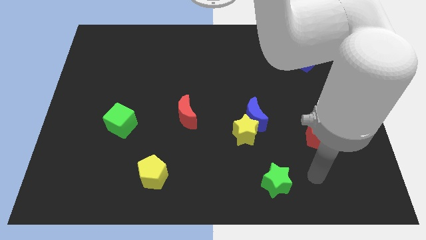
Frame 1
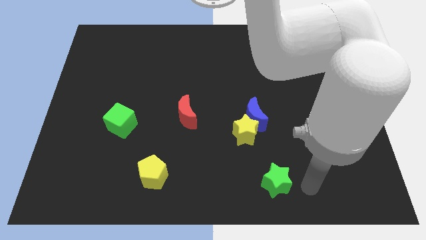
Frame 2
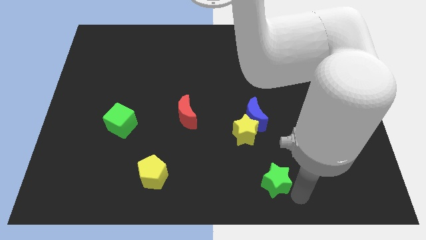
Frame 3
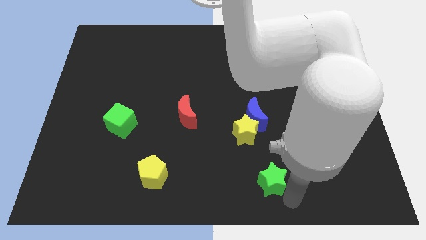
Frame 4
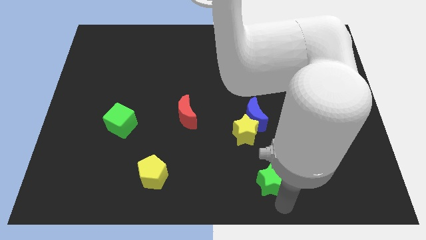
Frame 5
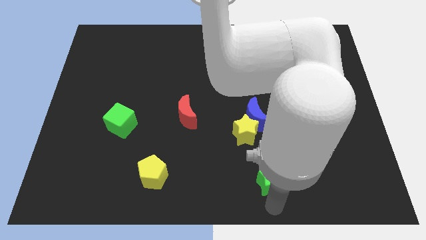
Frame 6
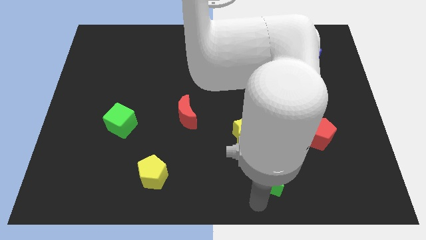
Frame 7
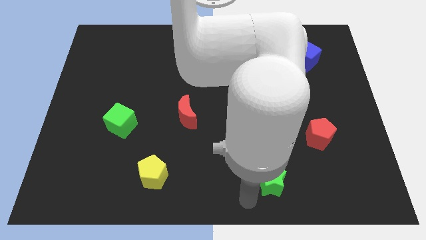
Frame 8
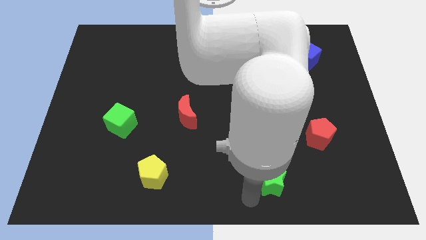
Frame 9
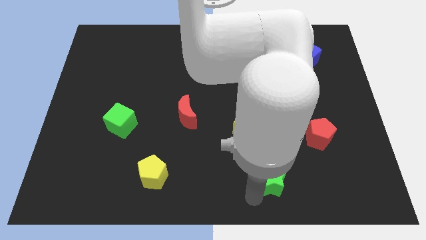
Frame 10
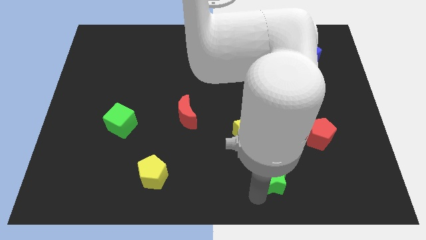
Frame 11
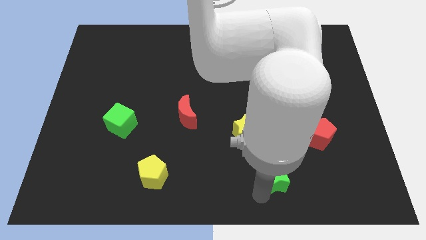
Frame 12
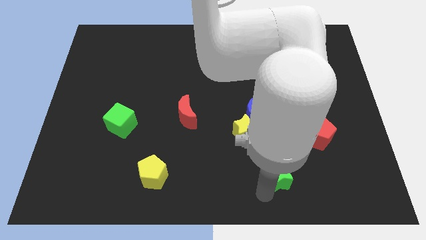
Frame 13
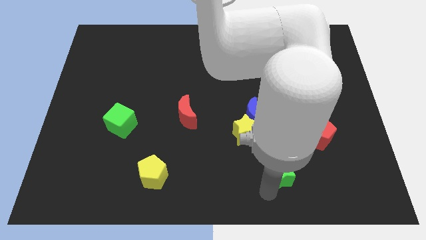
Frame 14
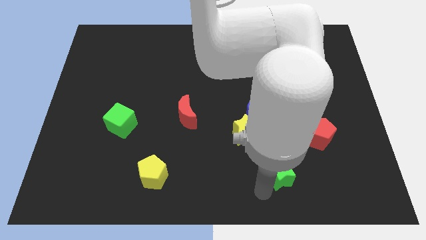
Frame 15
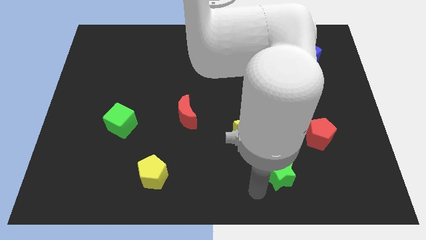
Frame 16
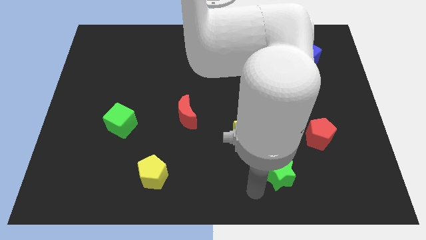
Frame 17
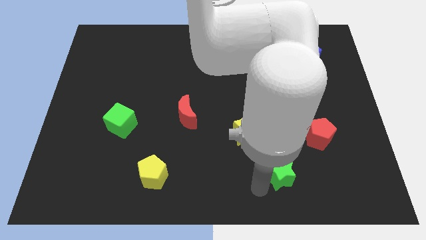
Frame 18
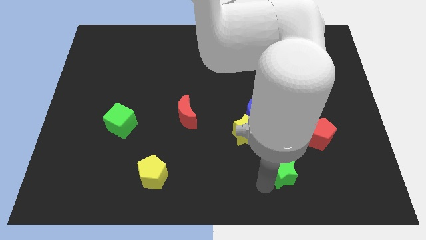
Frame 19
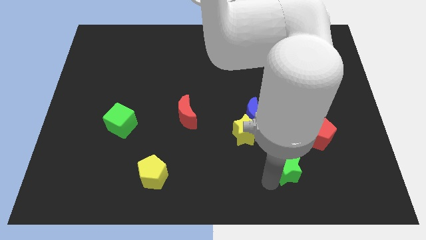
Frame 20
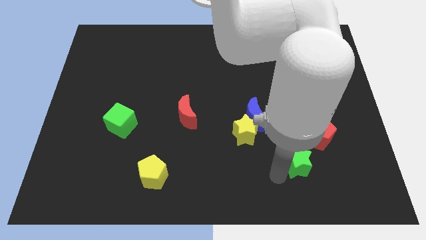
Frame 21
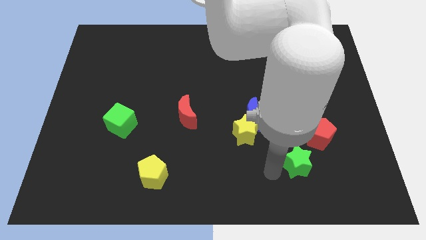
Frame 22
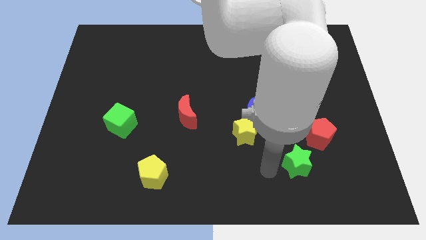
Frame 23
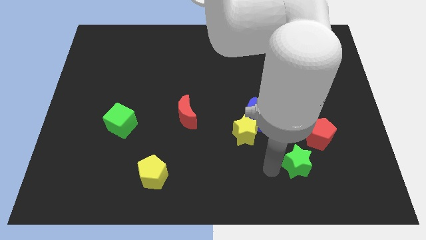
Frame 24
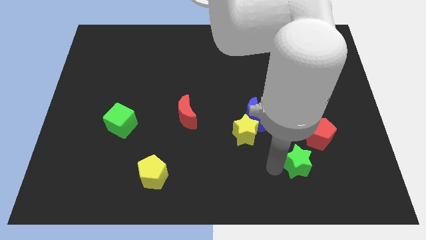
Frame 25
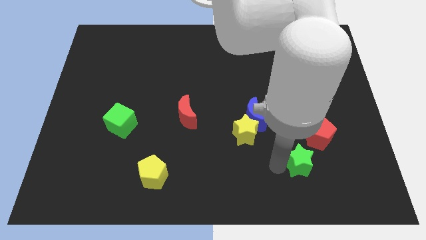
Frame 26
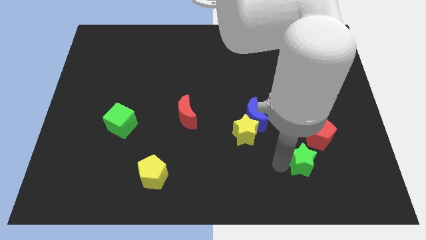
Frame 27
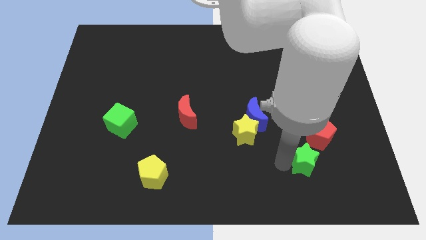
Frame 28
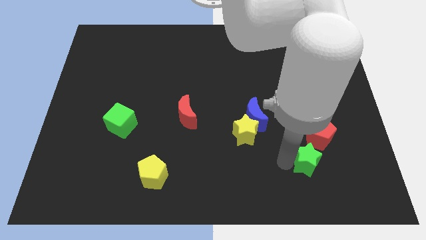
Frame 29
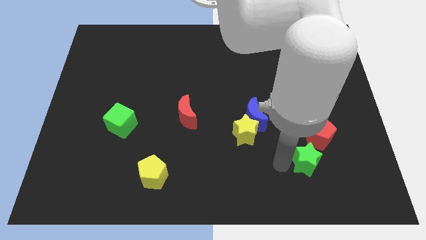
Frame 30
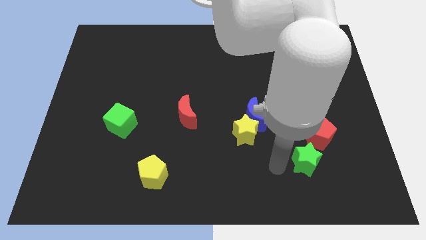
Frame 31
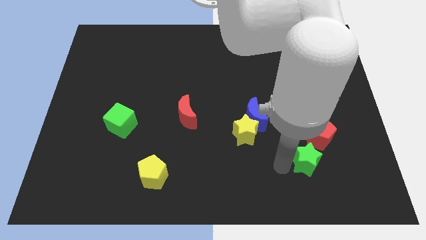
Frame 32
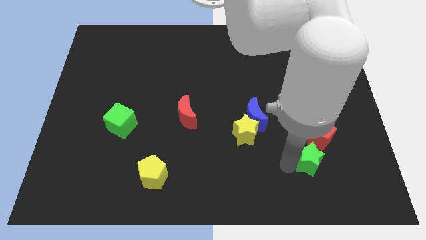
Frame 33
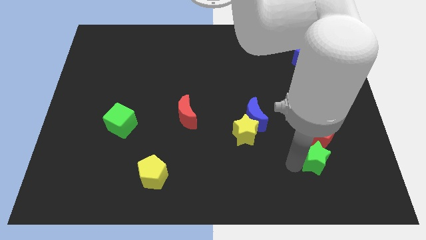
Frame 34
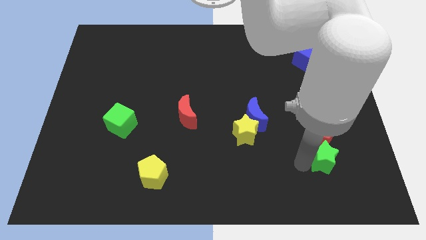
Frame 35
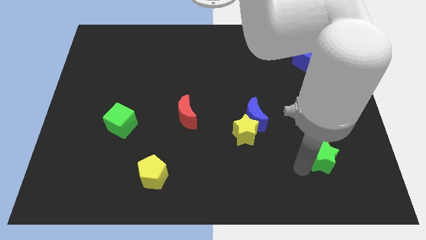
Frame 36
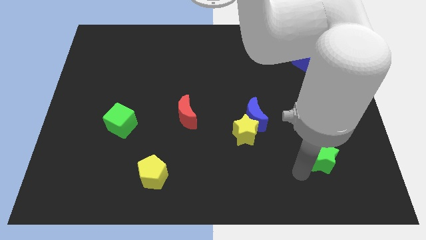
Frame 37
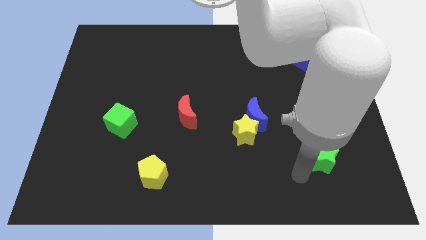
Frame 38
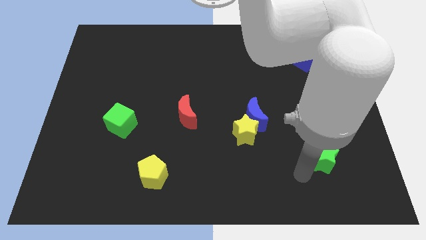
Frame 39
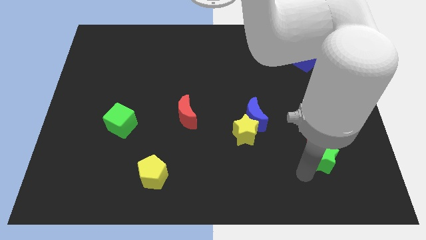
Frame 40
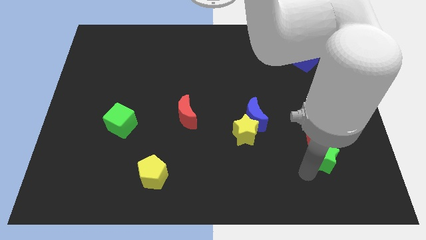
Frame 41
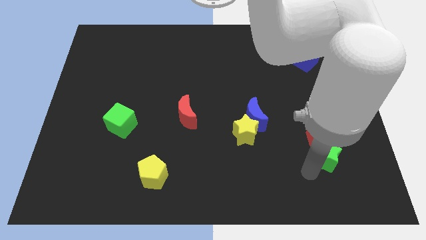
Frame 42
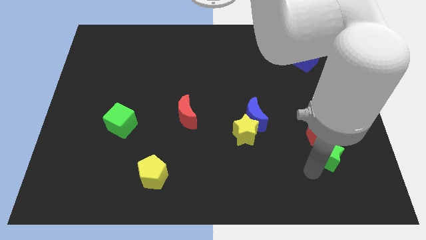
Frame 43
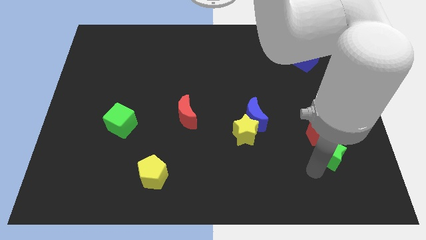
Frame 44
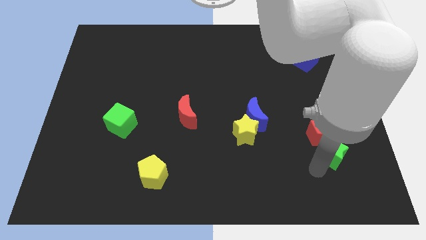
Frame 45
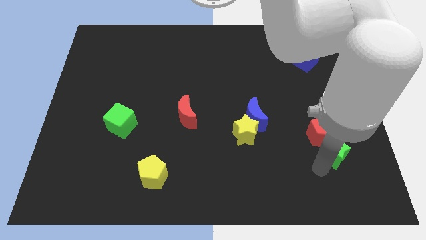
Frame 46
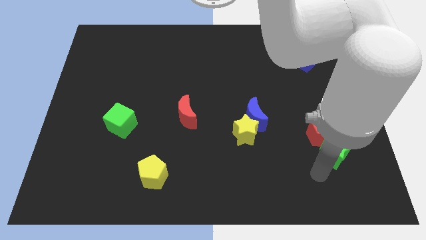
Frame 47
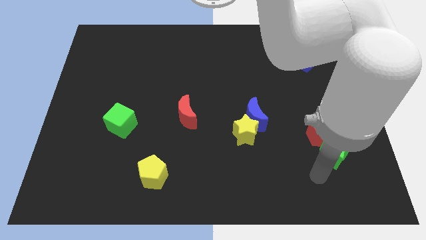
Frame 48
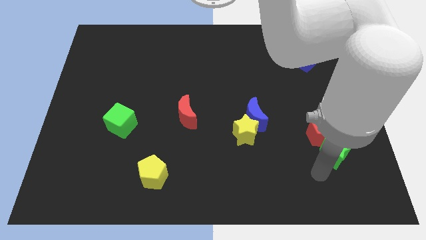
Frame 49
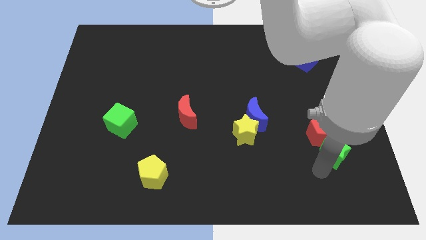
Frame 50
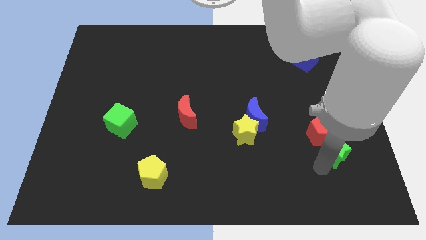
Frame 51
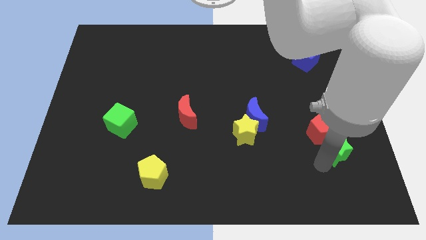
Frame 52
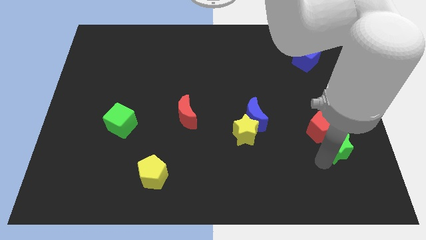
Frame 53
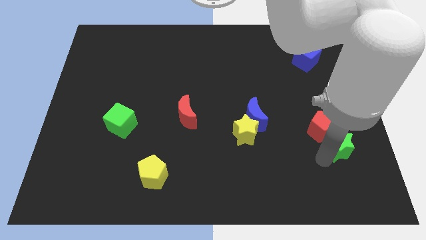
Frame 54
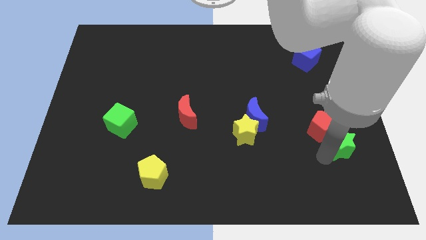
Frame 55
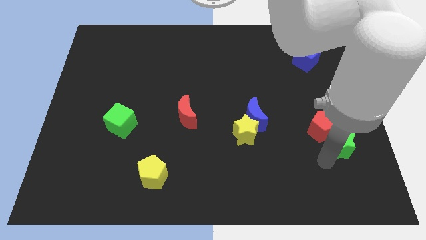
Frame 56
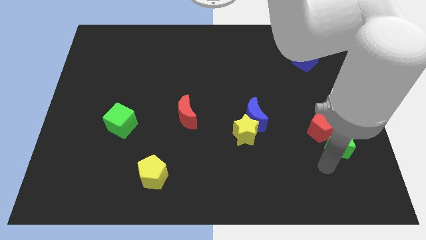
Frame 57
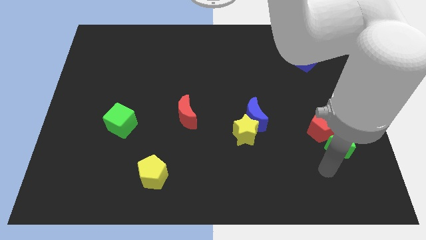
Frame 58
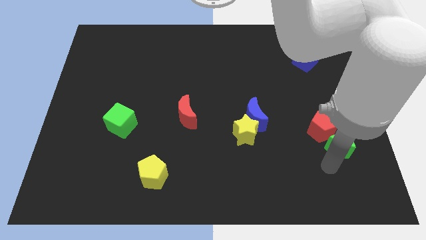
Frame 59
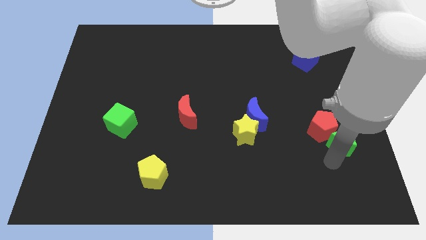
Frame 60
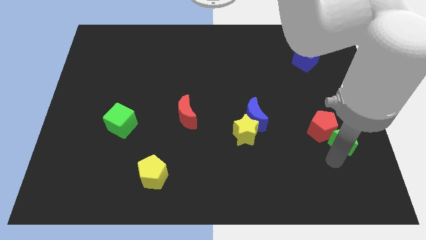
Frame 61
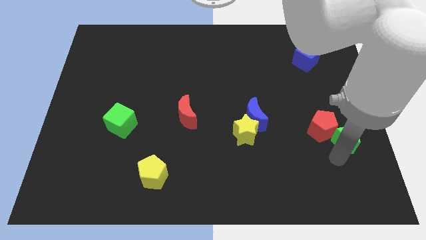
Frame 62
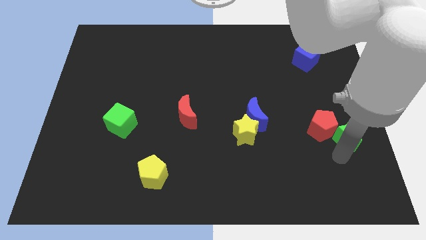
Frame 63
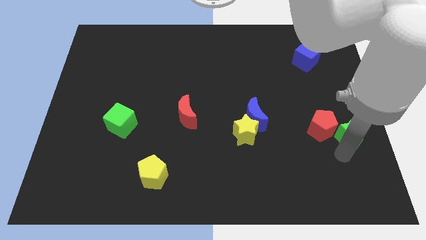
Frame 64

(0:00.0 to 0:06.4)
slide the green star to the center right
